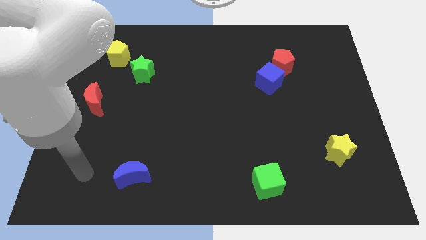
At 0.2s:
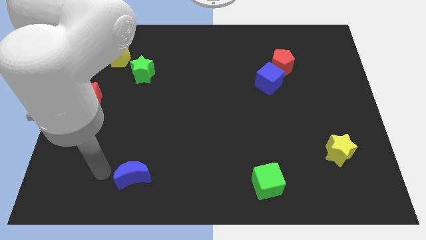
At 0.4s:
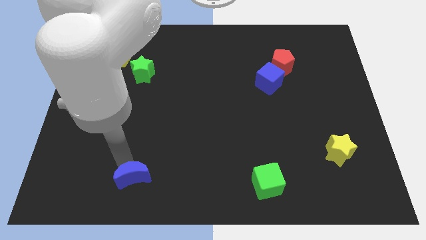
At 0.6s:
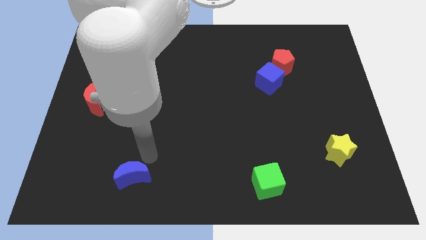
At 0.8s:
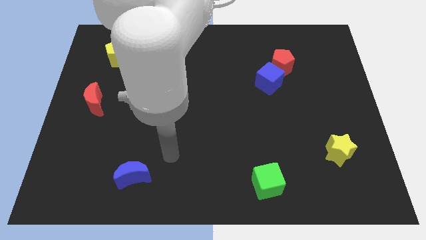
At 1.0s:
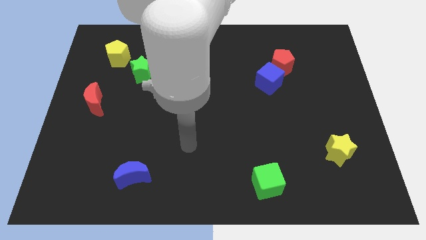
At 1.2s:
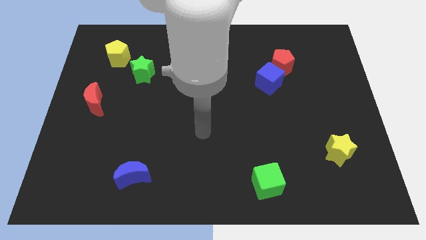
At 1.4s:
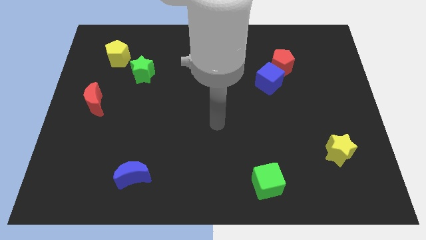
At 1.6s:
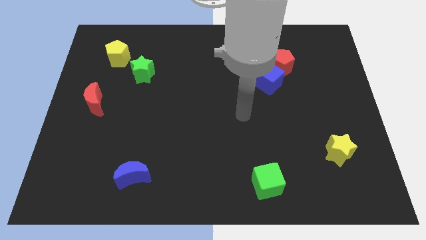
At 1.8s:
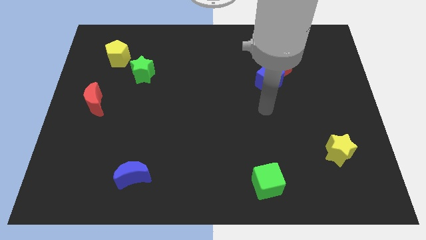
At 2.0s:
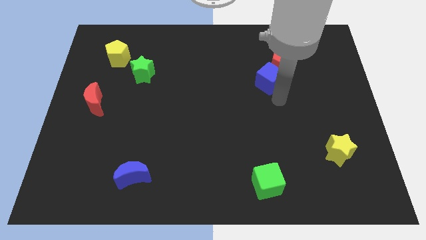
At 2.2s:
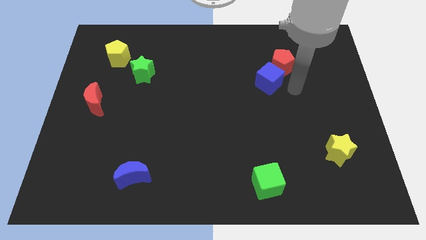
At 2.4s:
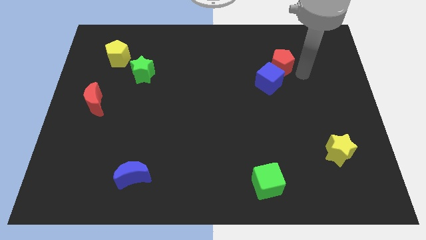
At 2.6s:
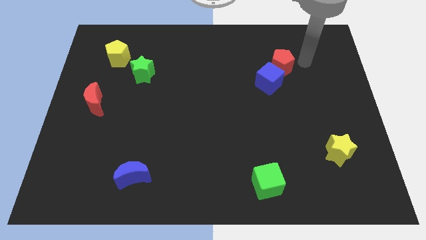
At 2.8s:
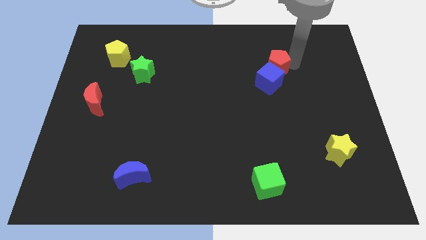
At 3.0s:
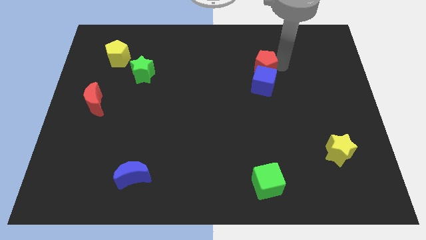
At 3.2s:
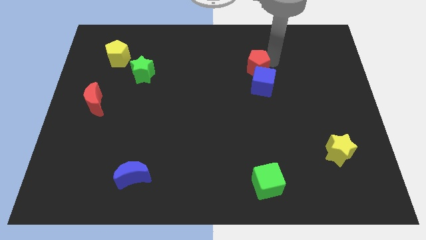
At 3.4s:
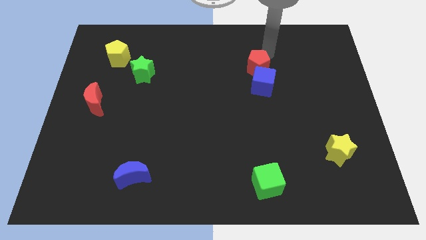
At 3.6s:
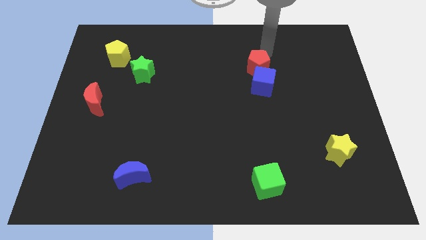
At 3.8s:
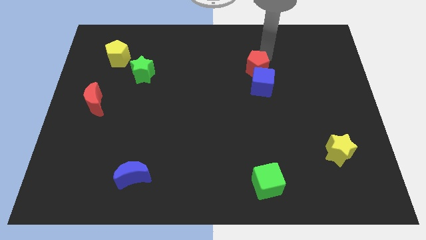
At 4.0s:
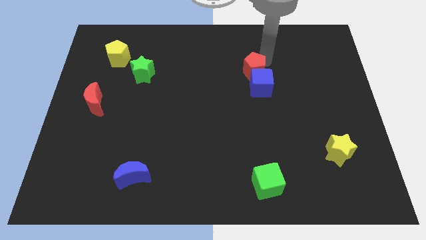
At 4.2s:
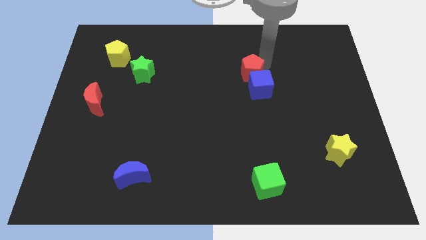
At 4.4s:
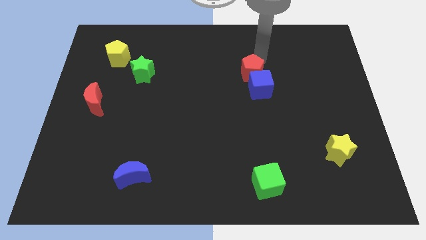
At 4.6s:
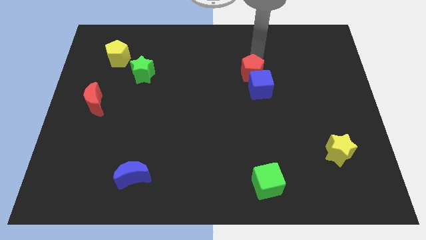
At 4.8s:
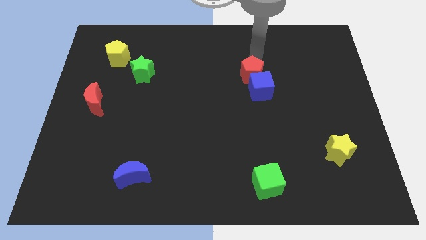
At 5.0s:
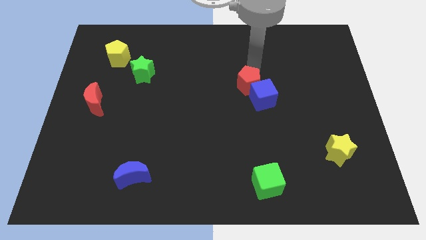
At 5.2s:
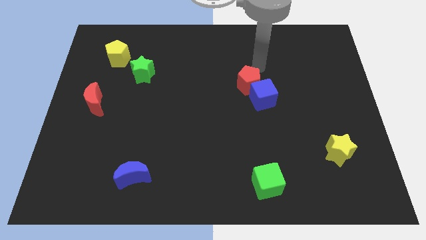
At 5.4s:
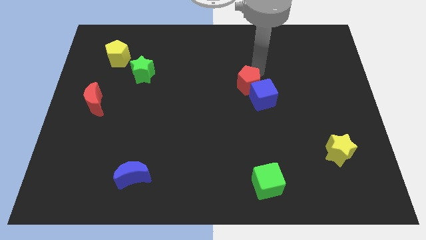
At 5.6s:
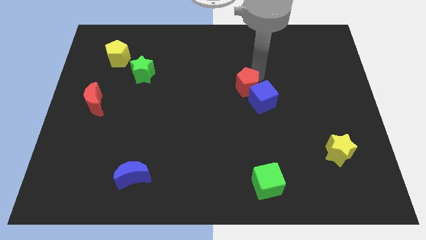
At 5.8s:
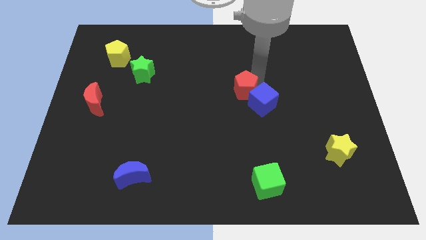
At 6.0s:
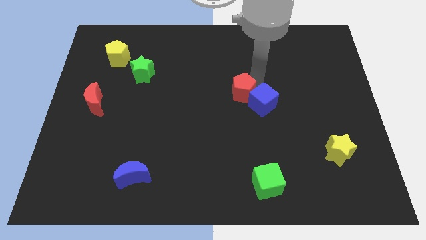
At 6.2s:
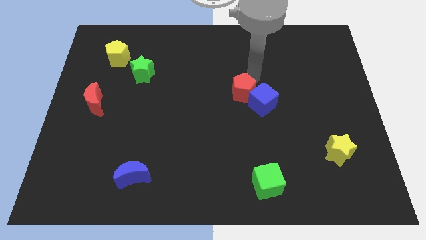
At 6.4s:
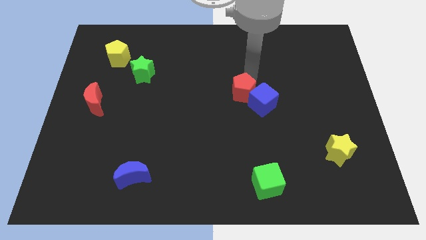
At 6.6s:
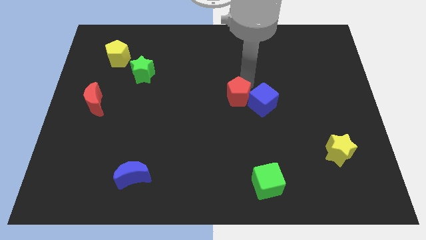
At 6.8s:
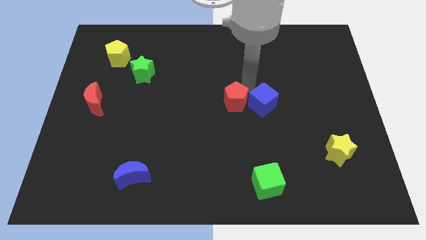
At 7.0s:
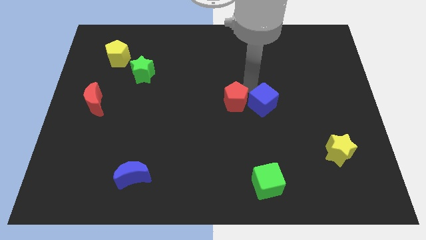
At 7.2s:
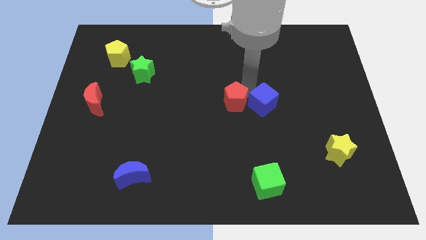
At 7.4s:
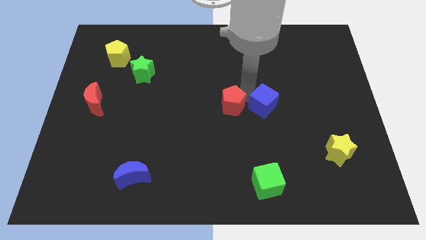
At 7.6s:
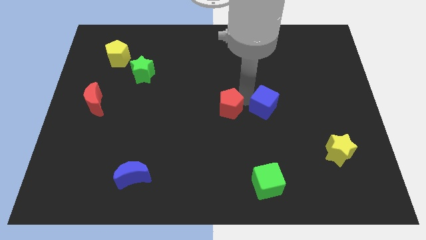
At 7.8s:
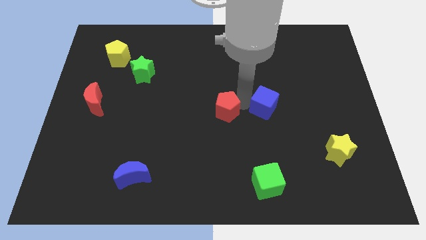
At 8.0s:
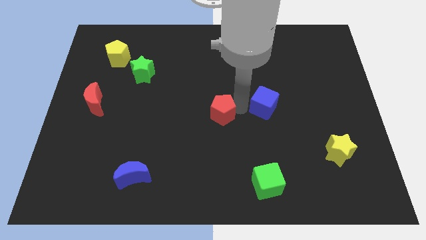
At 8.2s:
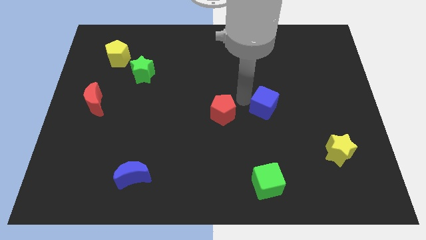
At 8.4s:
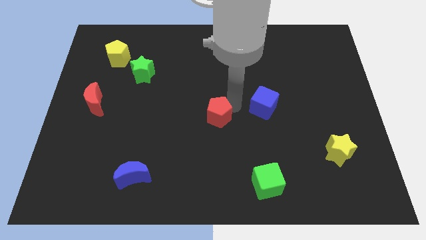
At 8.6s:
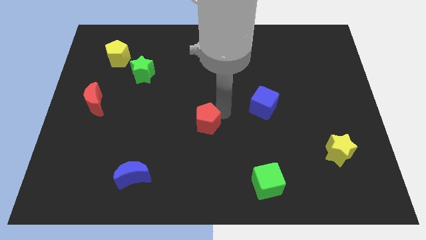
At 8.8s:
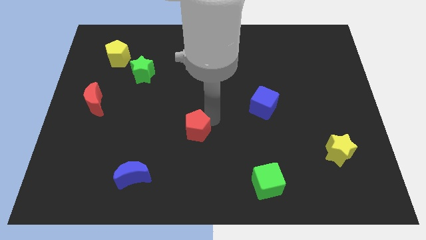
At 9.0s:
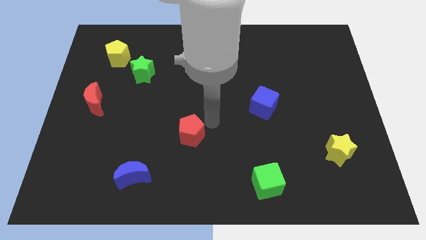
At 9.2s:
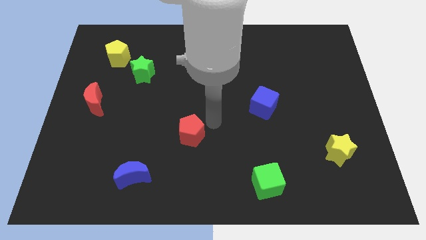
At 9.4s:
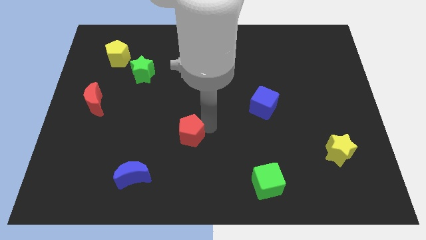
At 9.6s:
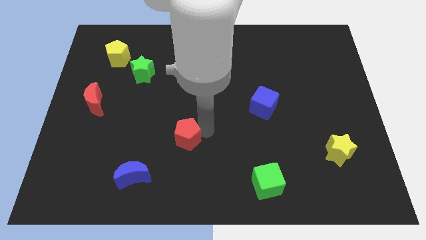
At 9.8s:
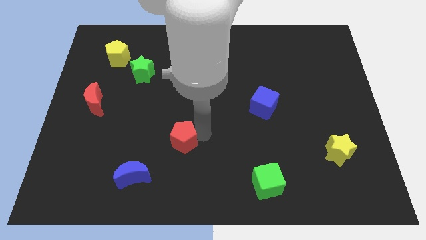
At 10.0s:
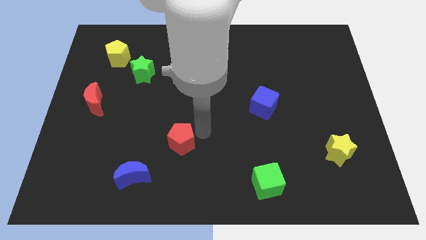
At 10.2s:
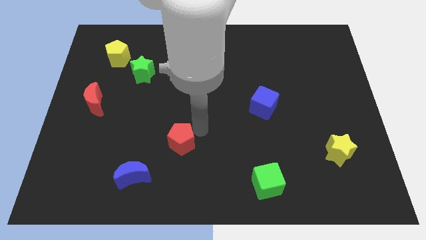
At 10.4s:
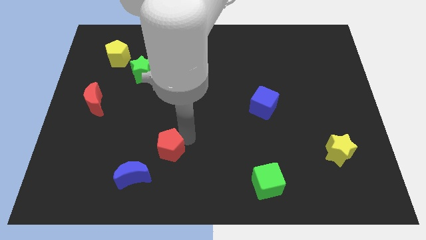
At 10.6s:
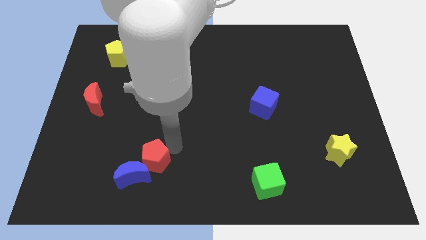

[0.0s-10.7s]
put the red pentagon close to the blue moon

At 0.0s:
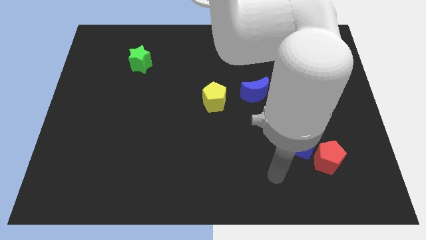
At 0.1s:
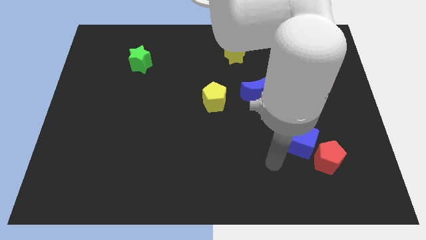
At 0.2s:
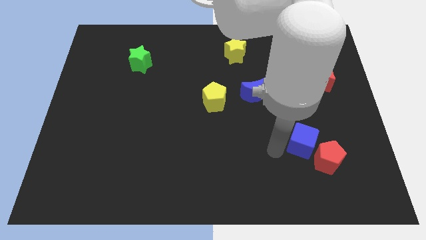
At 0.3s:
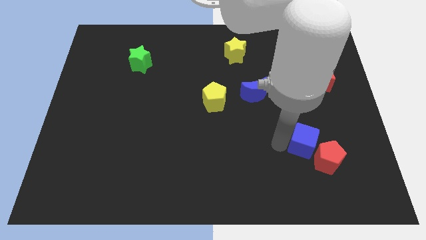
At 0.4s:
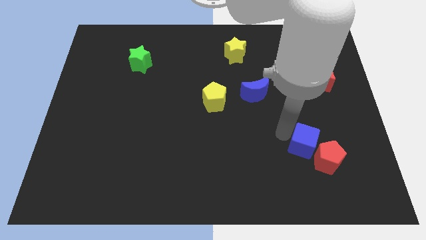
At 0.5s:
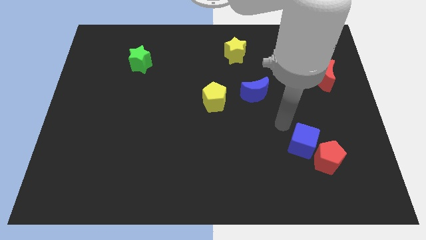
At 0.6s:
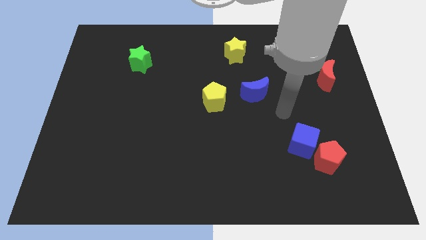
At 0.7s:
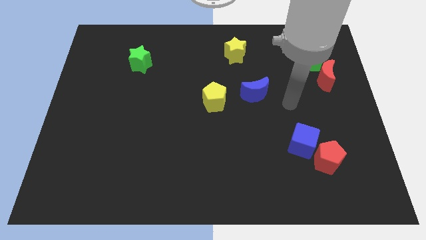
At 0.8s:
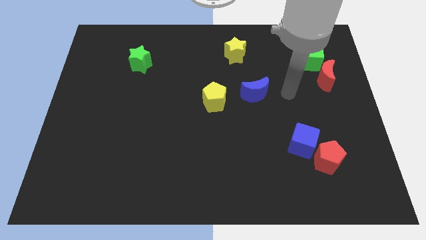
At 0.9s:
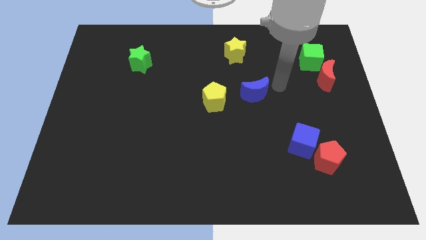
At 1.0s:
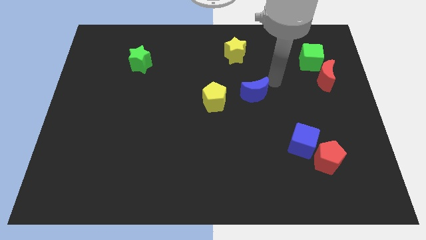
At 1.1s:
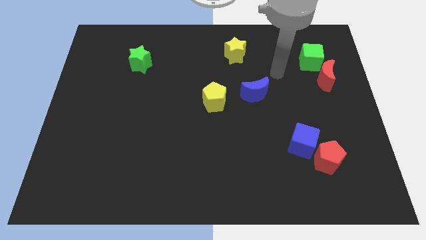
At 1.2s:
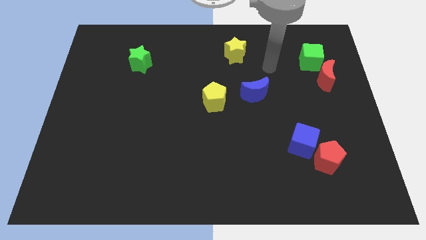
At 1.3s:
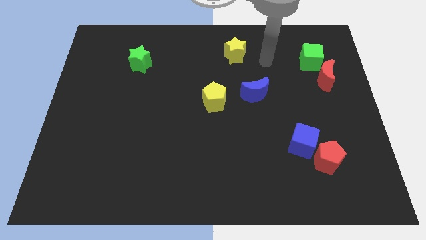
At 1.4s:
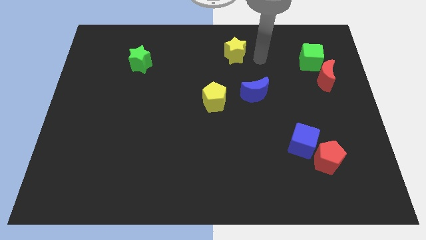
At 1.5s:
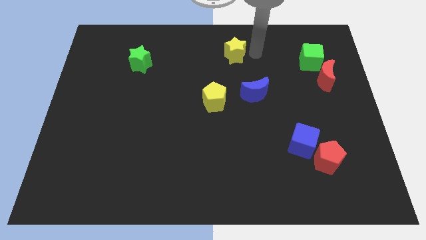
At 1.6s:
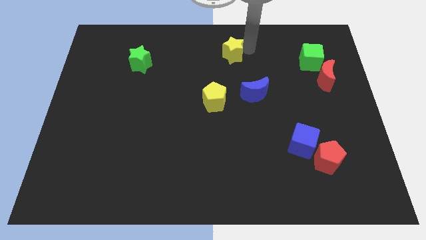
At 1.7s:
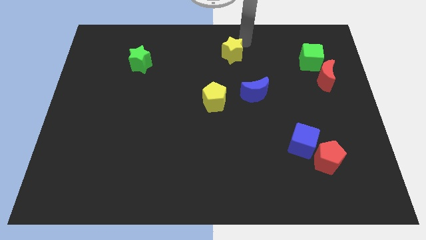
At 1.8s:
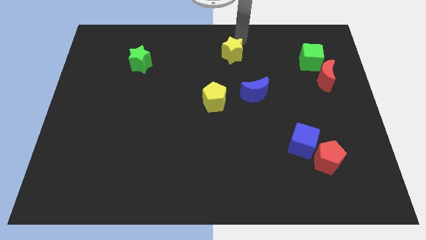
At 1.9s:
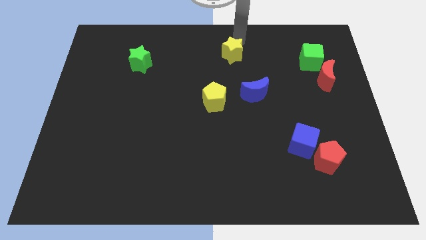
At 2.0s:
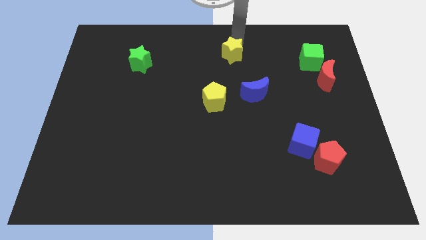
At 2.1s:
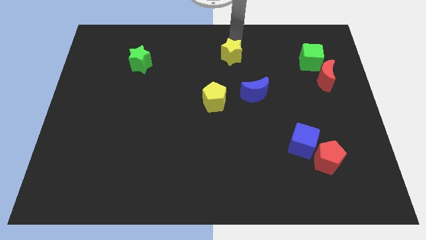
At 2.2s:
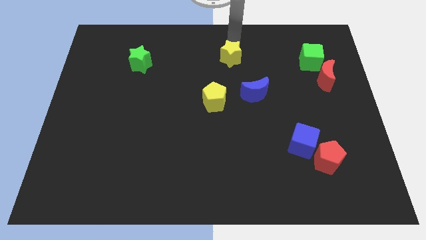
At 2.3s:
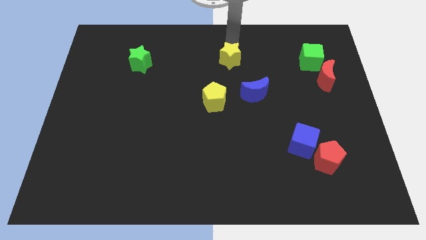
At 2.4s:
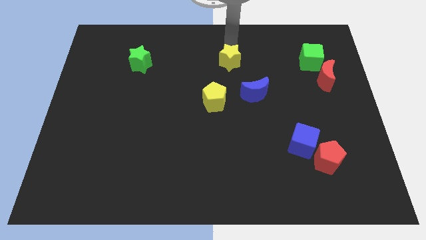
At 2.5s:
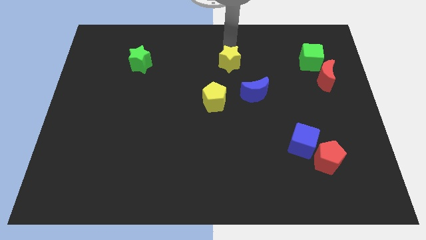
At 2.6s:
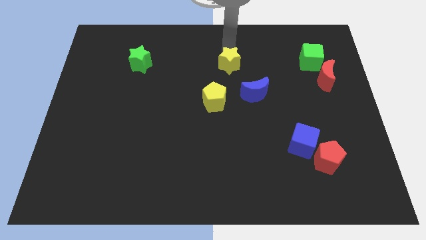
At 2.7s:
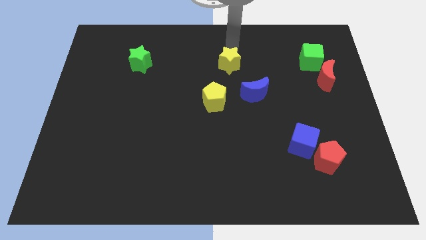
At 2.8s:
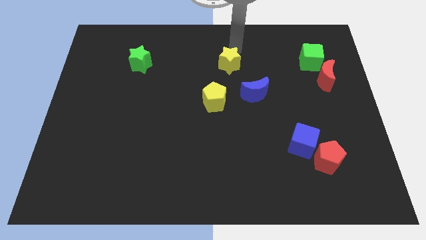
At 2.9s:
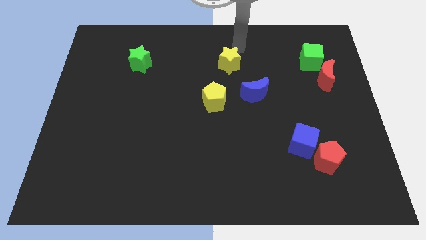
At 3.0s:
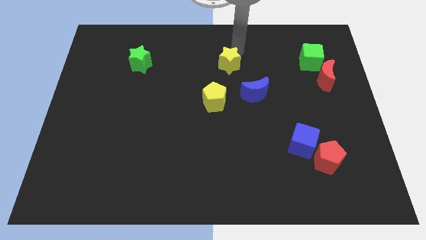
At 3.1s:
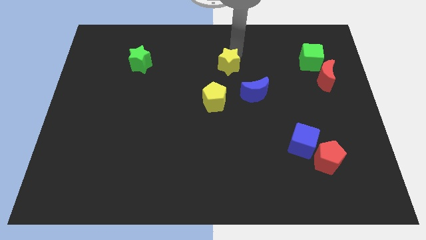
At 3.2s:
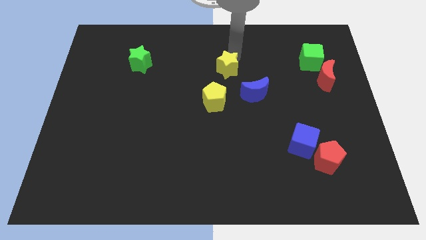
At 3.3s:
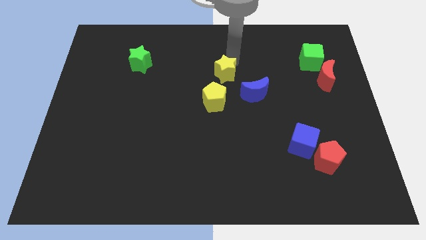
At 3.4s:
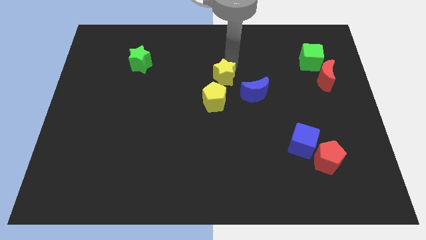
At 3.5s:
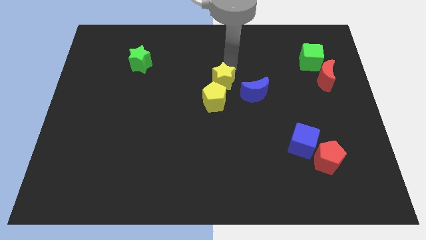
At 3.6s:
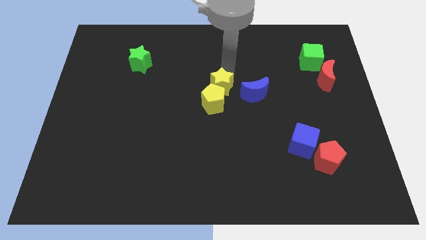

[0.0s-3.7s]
move the yellow star to the yellow pentagon
